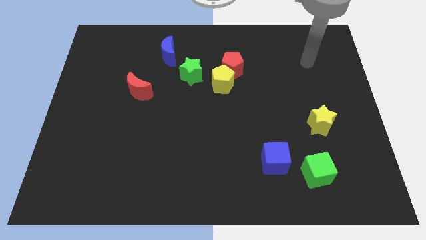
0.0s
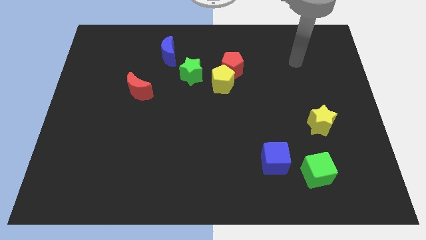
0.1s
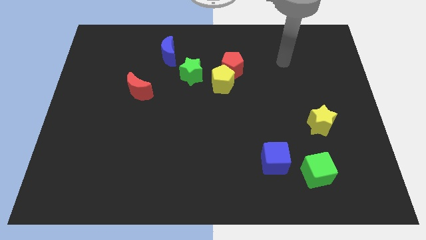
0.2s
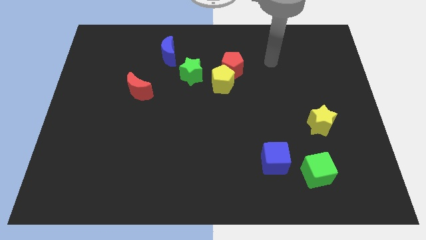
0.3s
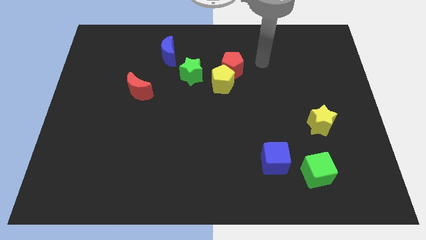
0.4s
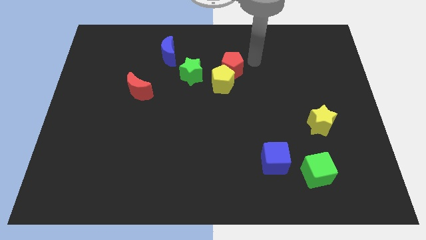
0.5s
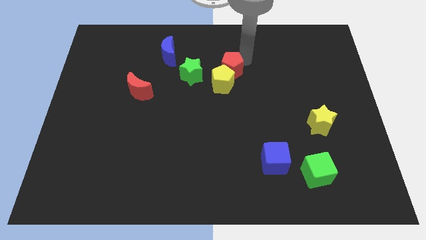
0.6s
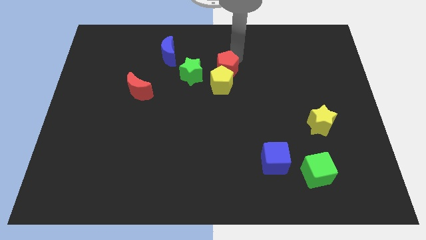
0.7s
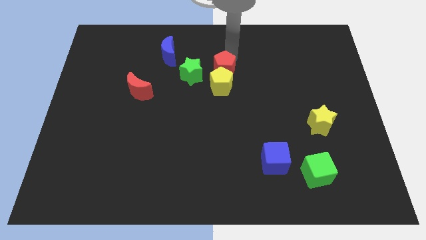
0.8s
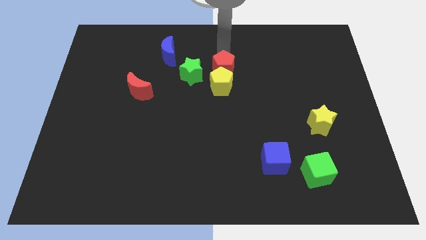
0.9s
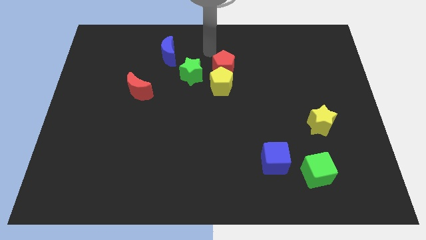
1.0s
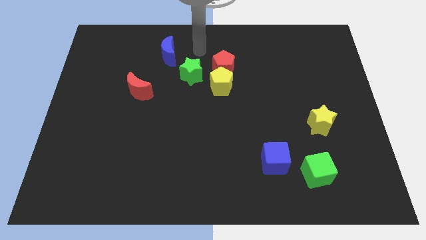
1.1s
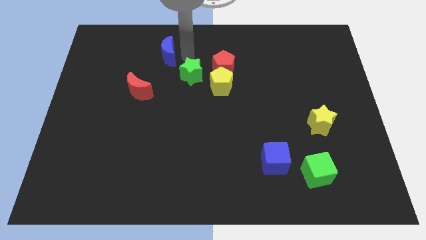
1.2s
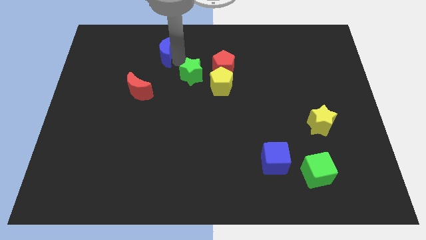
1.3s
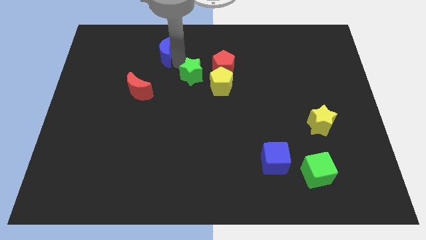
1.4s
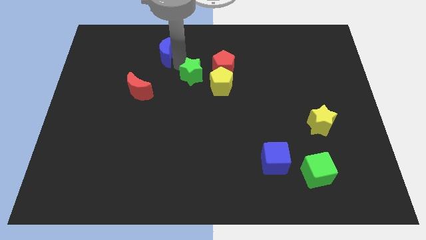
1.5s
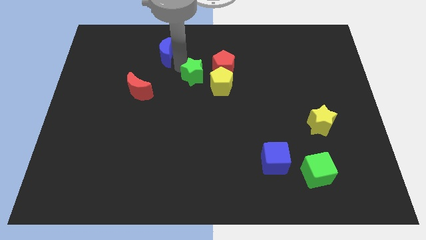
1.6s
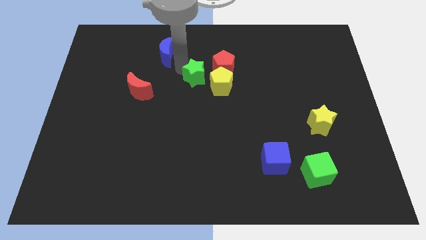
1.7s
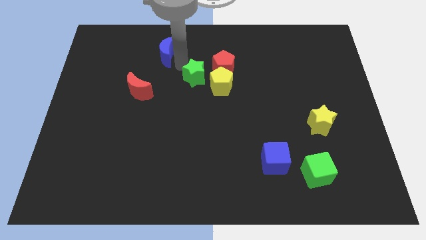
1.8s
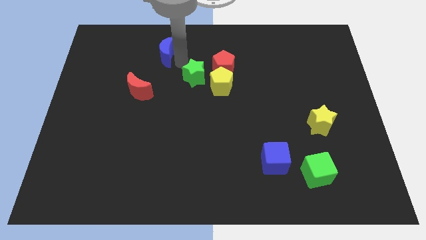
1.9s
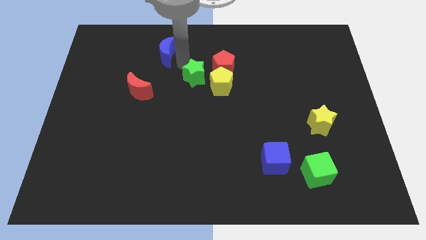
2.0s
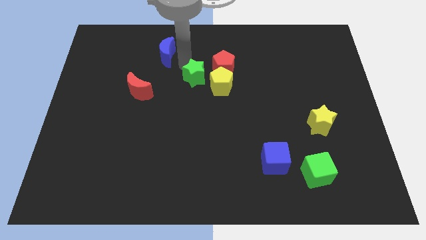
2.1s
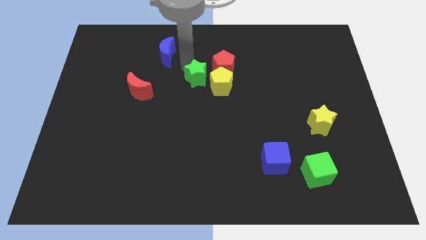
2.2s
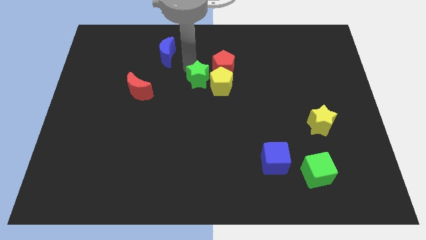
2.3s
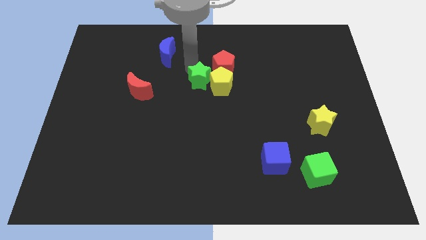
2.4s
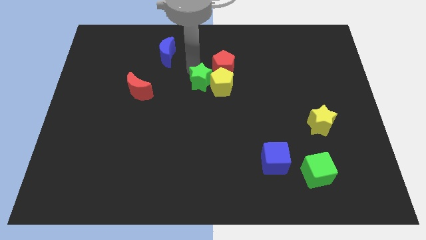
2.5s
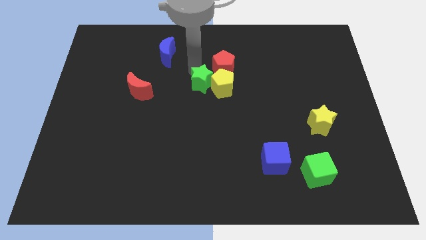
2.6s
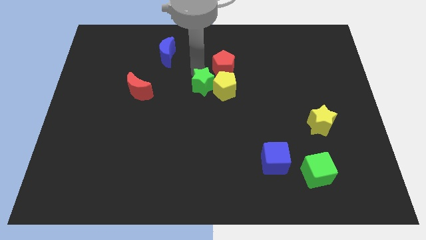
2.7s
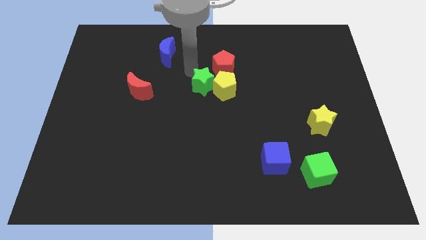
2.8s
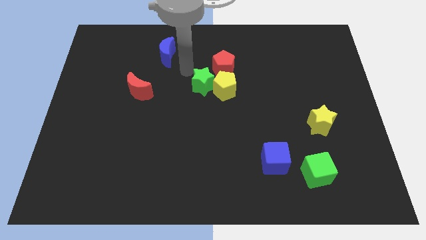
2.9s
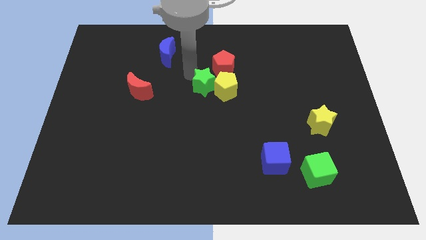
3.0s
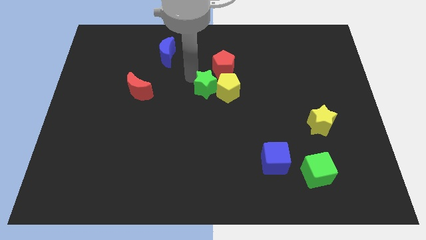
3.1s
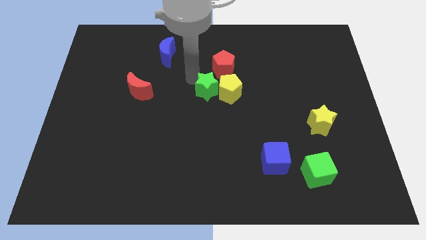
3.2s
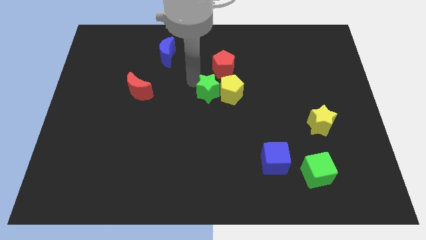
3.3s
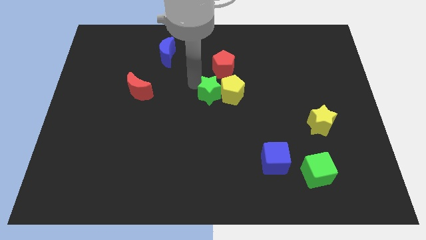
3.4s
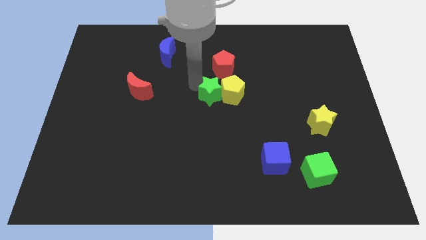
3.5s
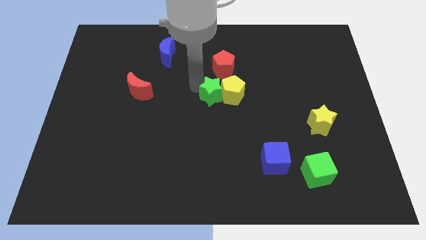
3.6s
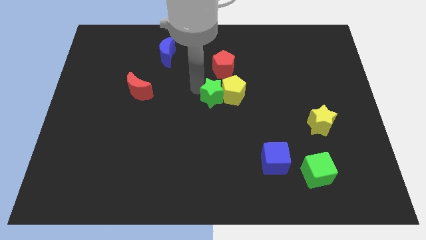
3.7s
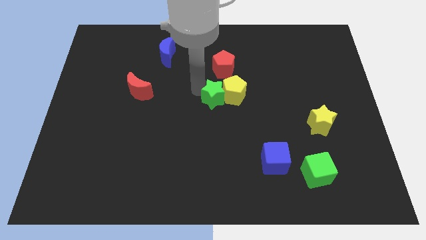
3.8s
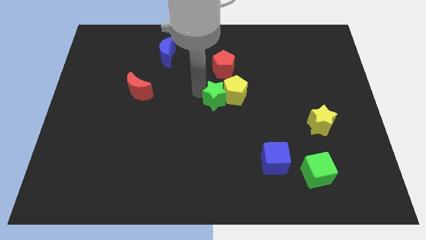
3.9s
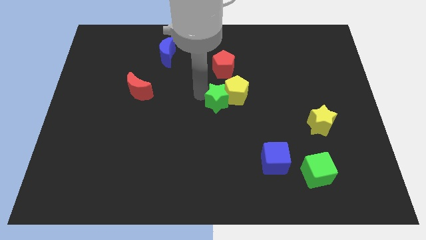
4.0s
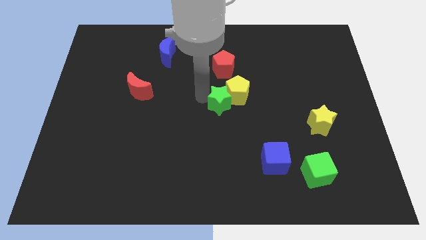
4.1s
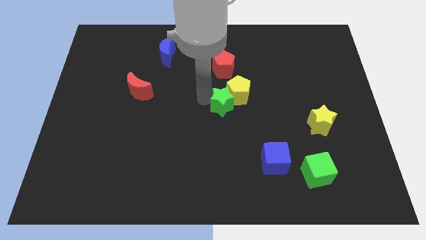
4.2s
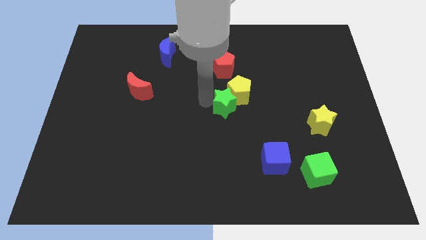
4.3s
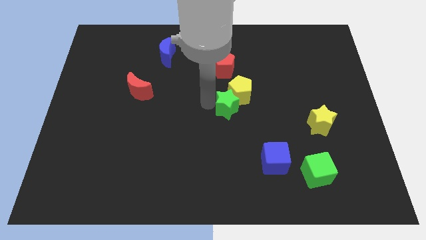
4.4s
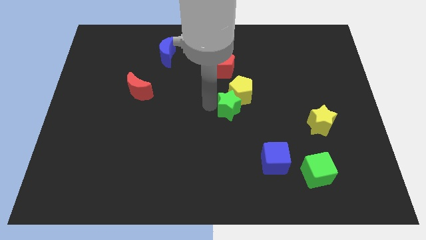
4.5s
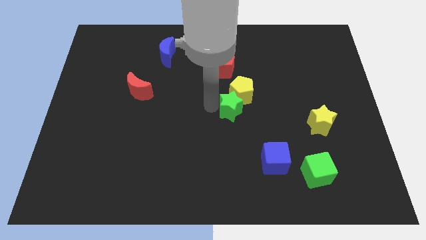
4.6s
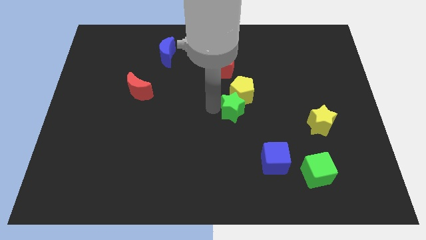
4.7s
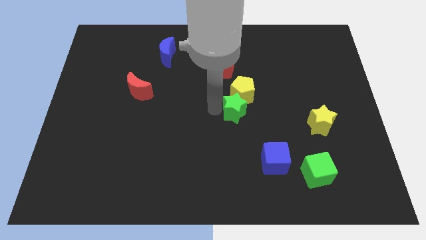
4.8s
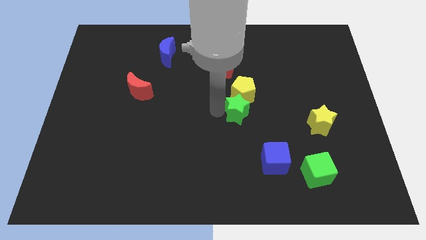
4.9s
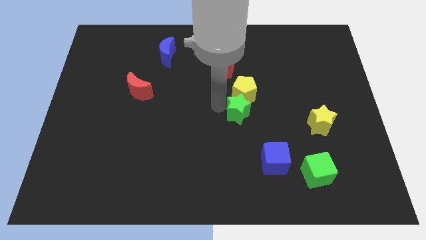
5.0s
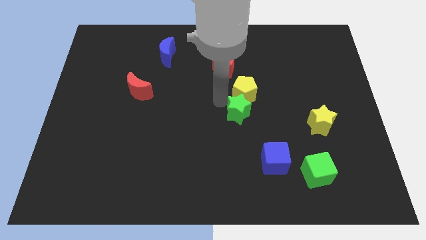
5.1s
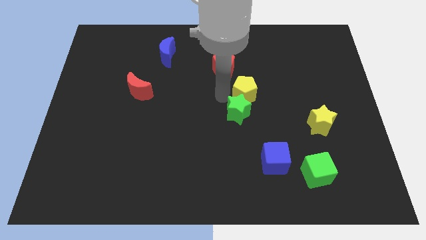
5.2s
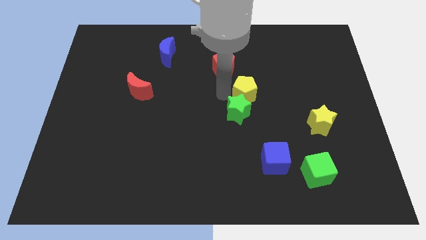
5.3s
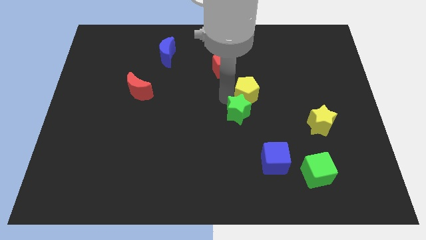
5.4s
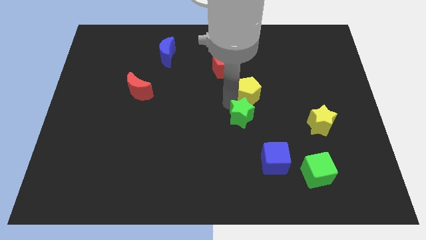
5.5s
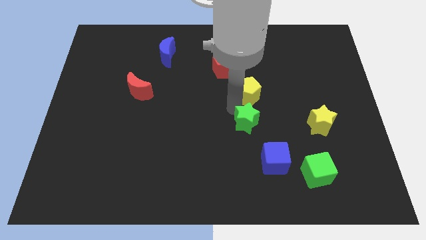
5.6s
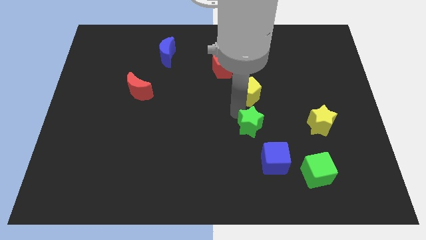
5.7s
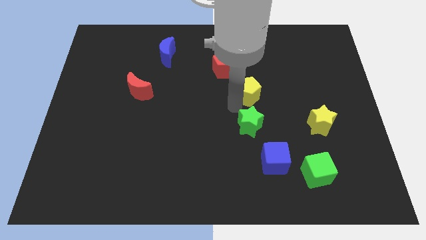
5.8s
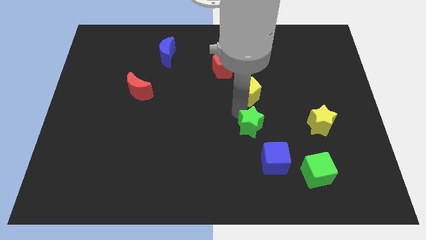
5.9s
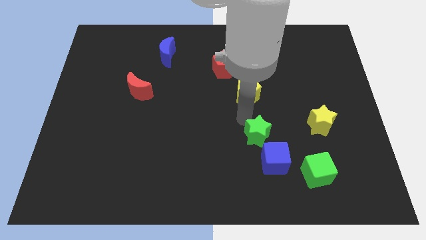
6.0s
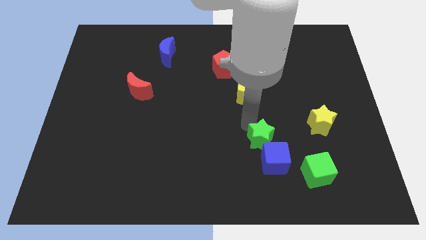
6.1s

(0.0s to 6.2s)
push the green star next to the blue cube
